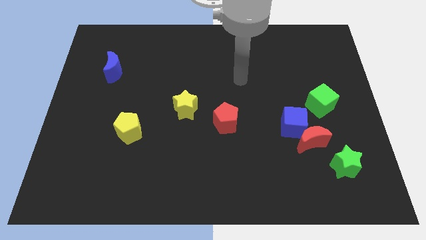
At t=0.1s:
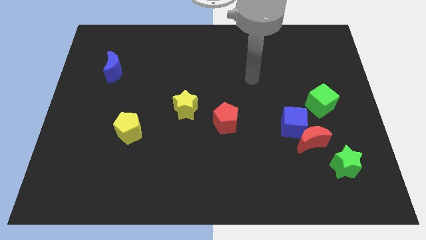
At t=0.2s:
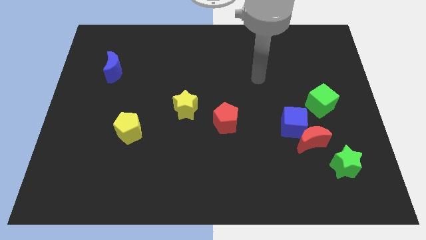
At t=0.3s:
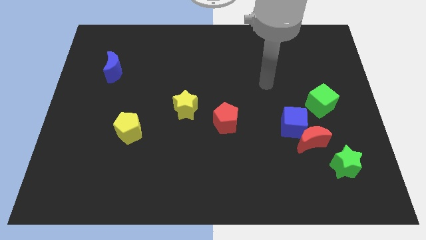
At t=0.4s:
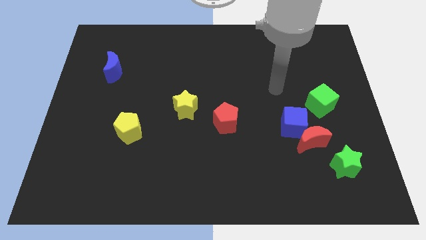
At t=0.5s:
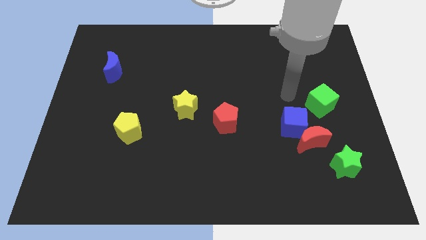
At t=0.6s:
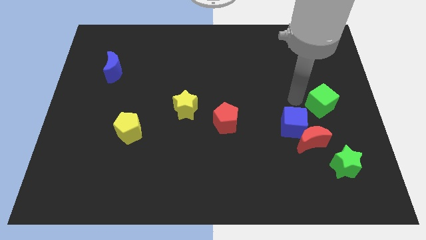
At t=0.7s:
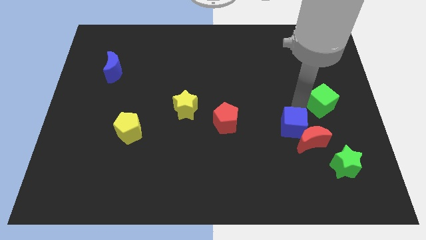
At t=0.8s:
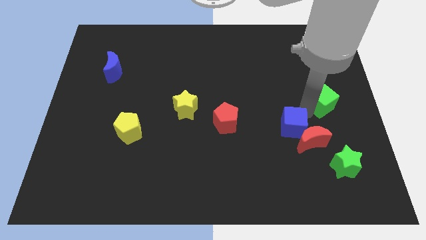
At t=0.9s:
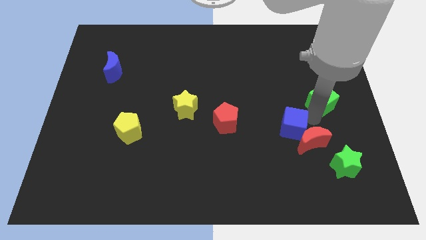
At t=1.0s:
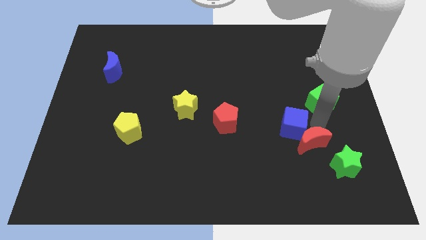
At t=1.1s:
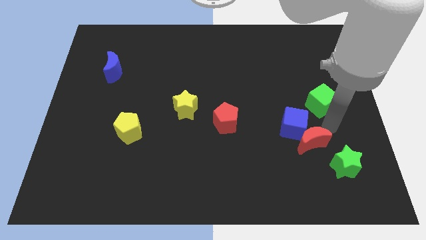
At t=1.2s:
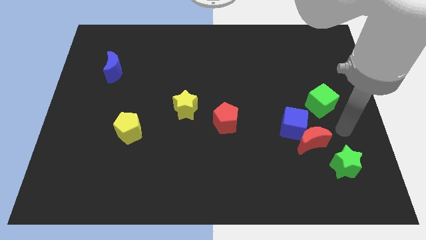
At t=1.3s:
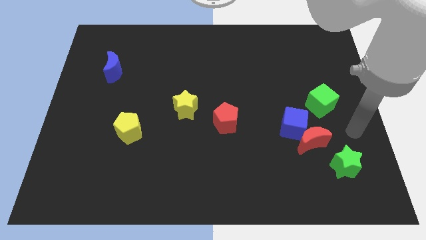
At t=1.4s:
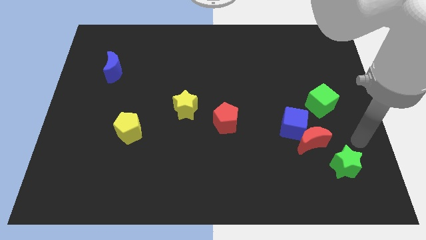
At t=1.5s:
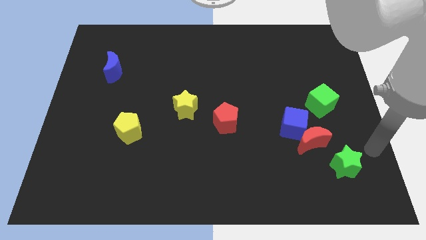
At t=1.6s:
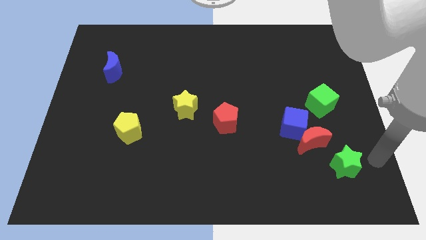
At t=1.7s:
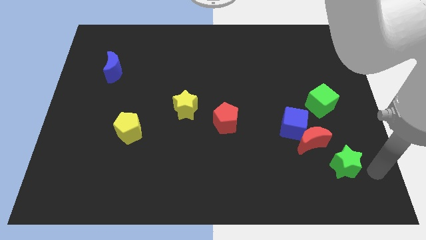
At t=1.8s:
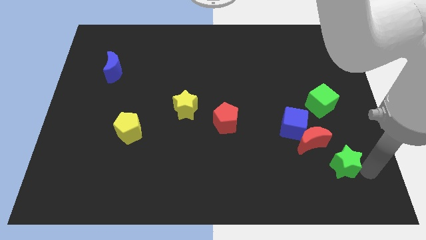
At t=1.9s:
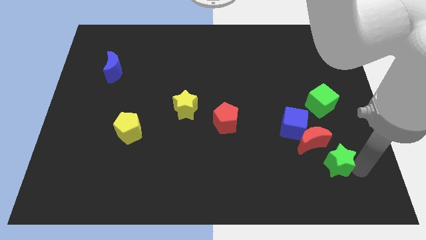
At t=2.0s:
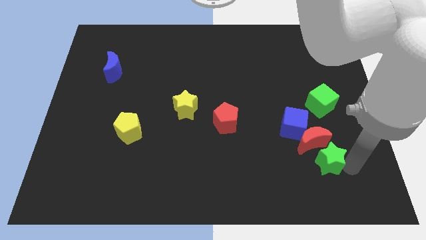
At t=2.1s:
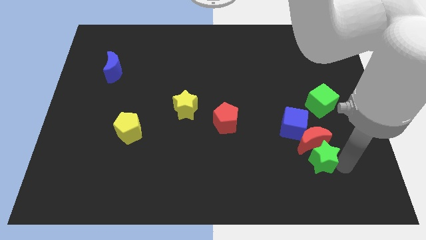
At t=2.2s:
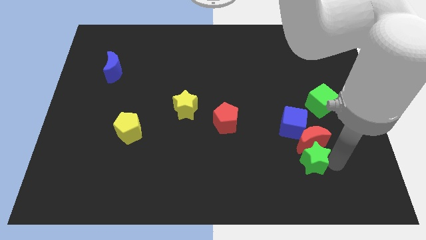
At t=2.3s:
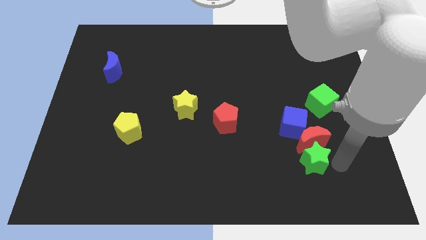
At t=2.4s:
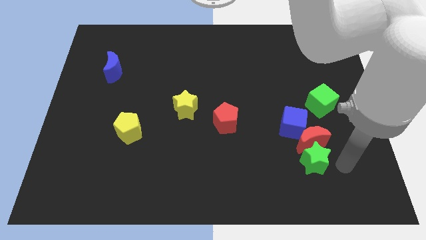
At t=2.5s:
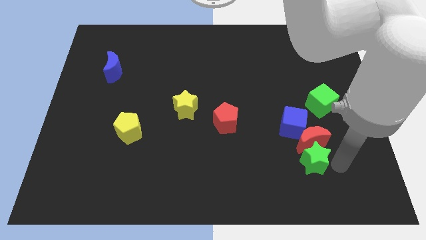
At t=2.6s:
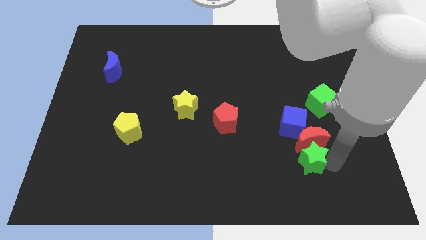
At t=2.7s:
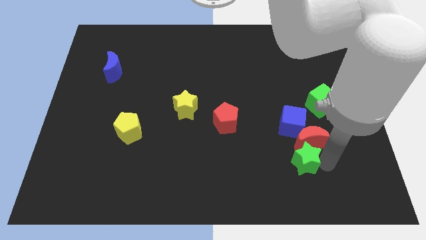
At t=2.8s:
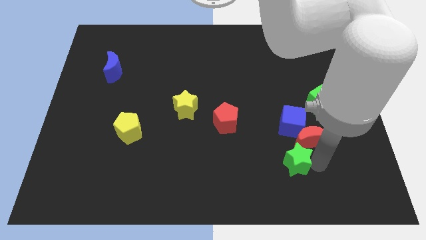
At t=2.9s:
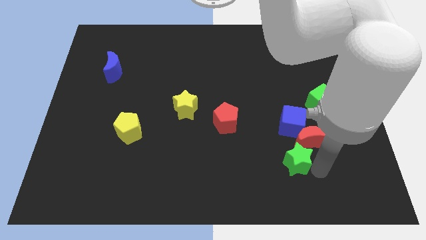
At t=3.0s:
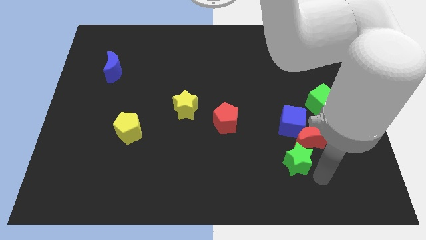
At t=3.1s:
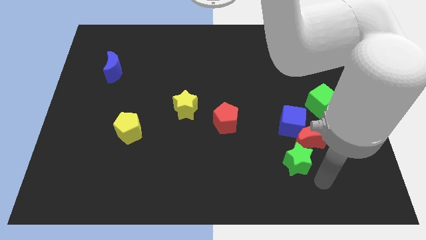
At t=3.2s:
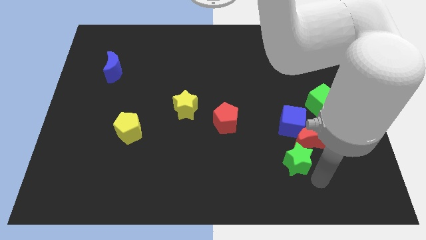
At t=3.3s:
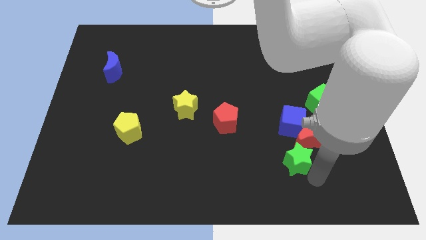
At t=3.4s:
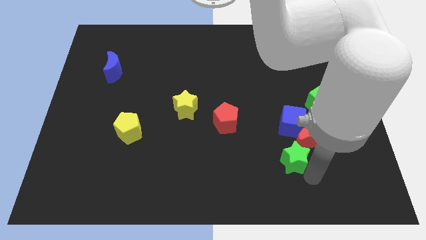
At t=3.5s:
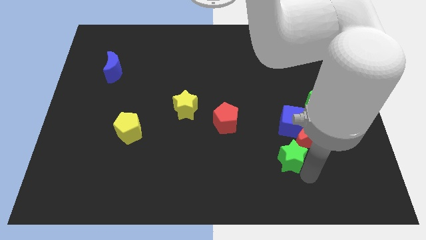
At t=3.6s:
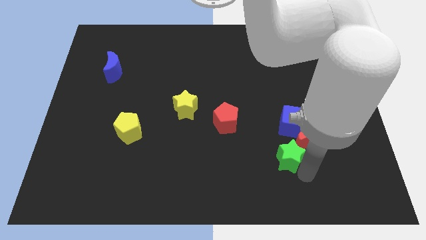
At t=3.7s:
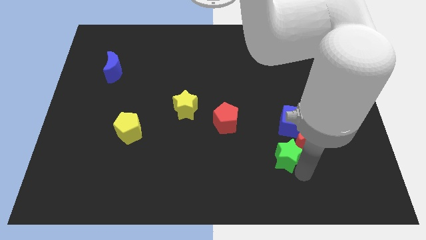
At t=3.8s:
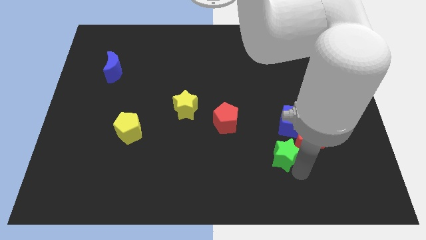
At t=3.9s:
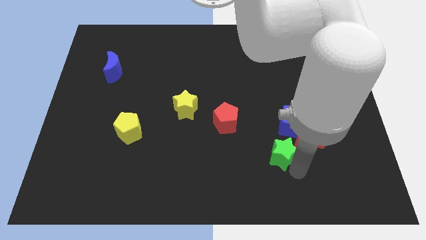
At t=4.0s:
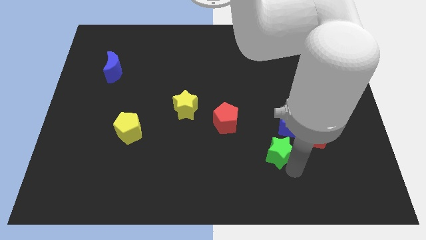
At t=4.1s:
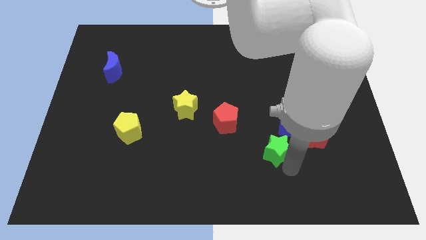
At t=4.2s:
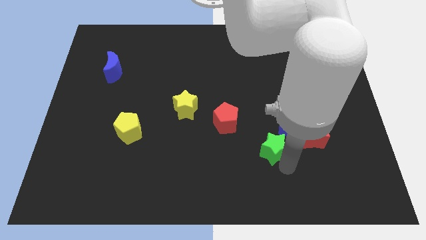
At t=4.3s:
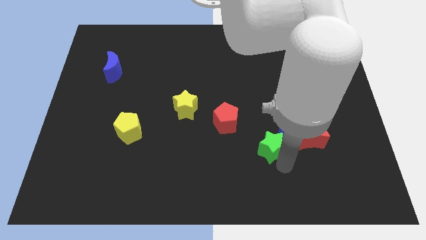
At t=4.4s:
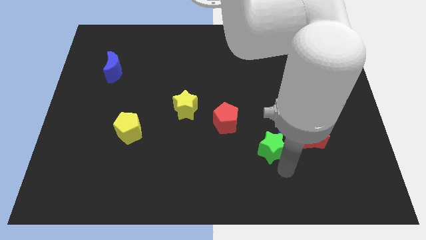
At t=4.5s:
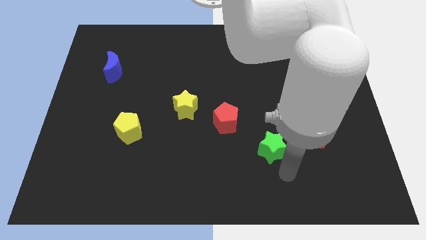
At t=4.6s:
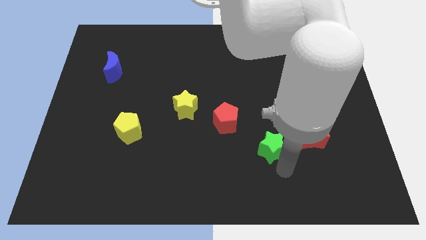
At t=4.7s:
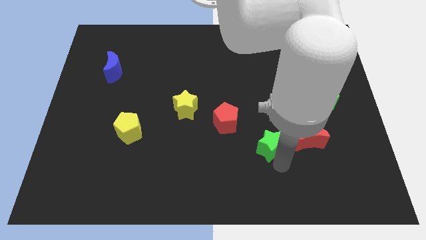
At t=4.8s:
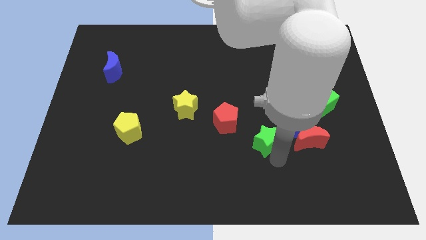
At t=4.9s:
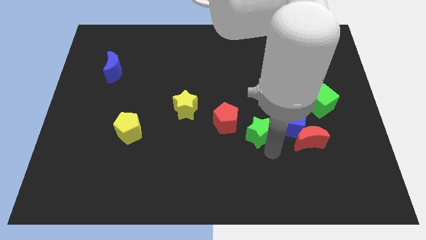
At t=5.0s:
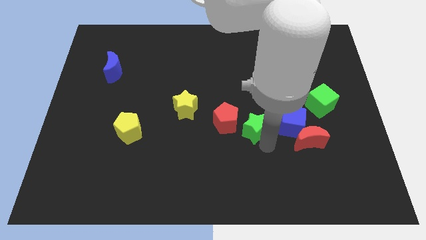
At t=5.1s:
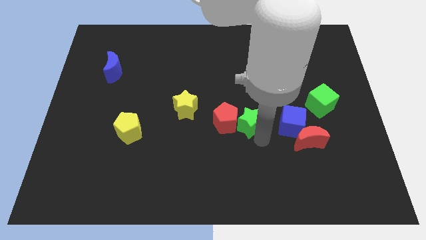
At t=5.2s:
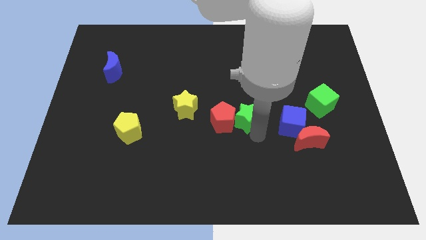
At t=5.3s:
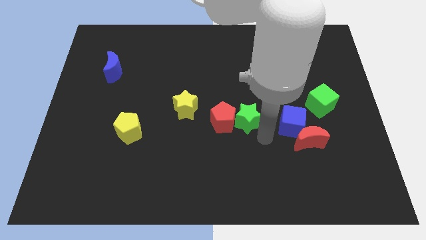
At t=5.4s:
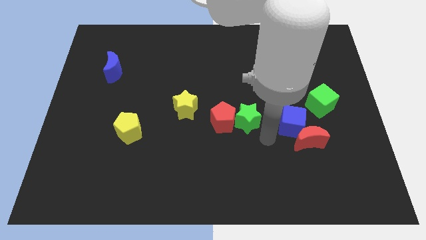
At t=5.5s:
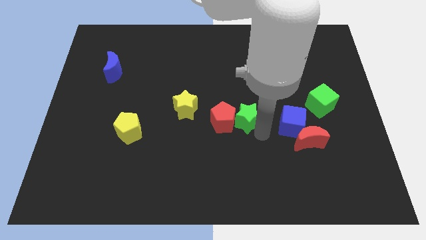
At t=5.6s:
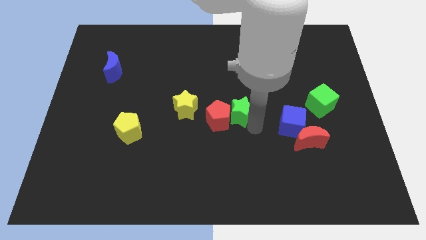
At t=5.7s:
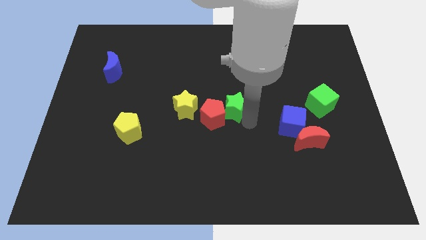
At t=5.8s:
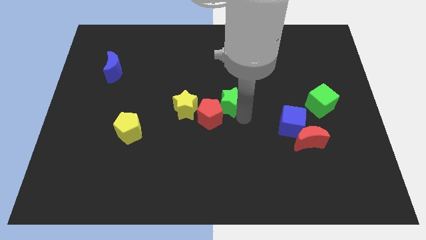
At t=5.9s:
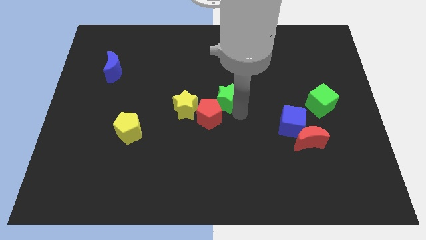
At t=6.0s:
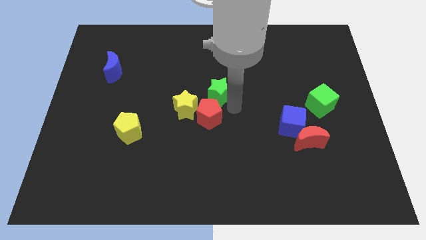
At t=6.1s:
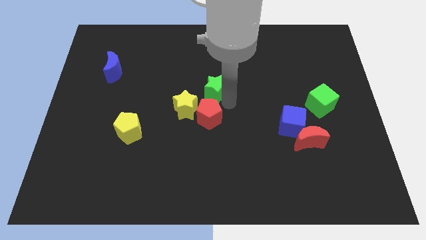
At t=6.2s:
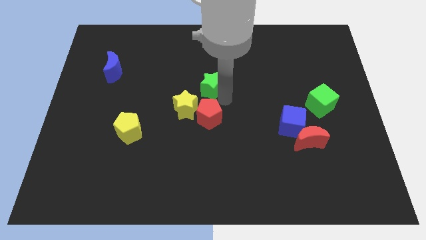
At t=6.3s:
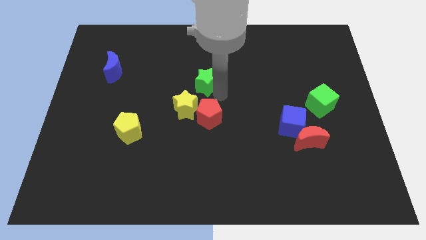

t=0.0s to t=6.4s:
slide the green star above the yellow star

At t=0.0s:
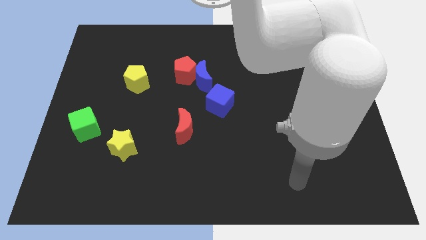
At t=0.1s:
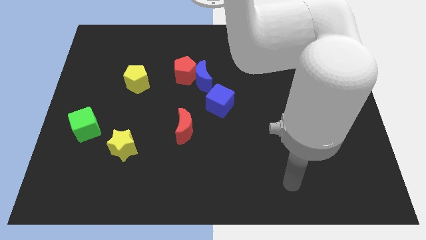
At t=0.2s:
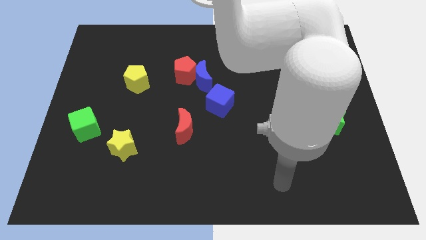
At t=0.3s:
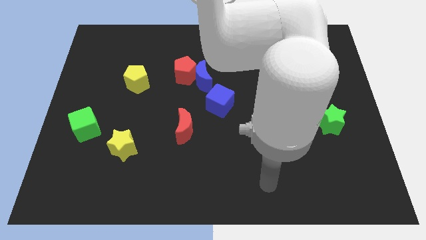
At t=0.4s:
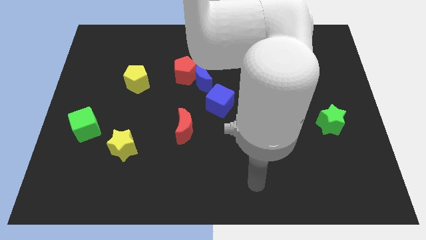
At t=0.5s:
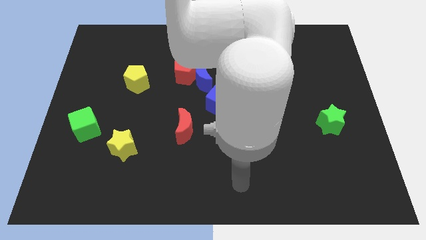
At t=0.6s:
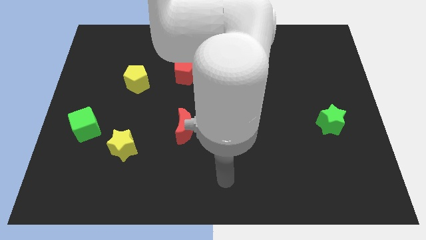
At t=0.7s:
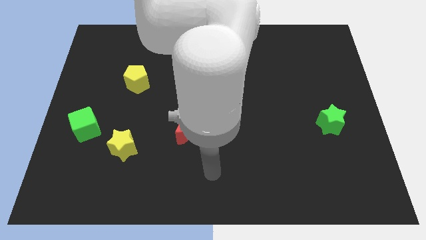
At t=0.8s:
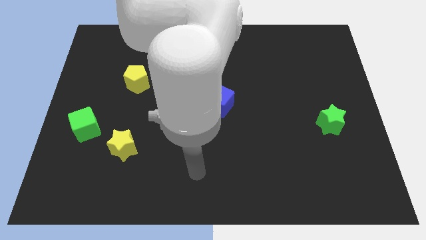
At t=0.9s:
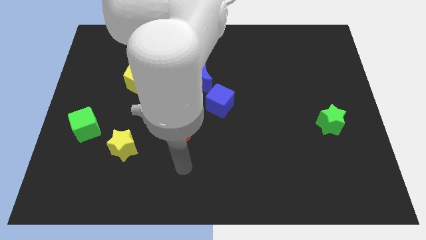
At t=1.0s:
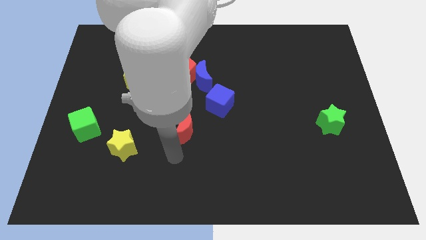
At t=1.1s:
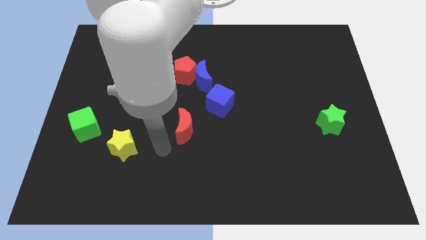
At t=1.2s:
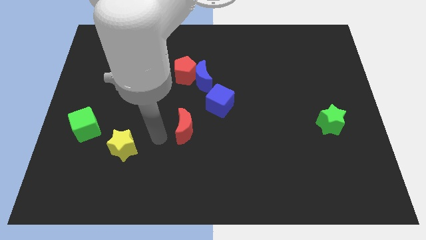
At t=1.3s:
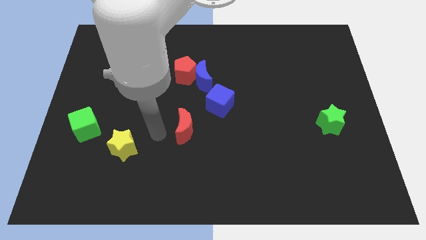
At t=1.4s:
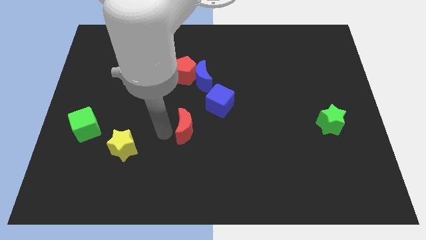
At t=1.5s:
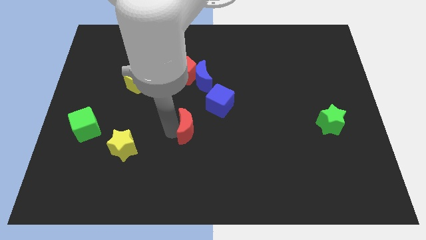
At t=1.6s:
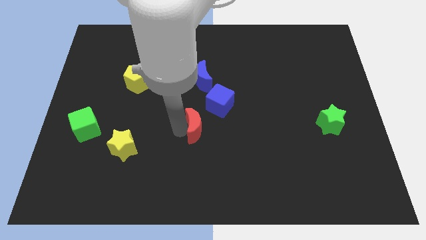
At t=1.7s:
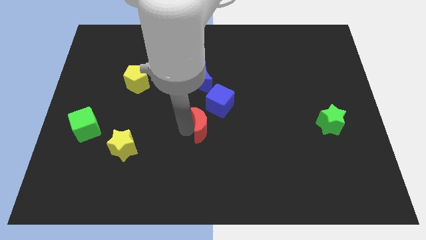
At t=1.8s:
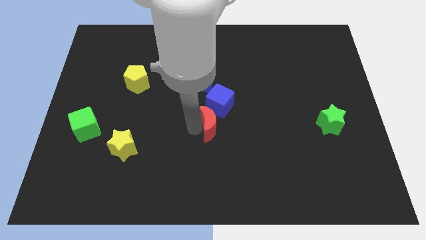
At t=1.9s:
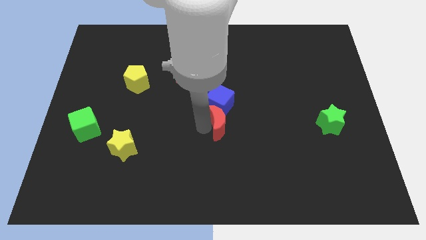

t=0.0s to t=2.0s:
slide the red moon diagonally down and to the right of the blue cube
